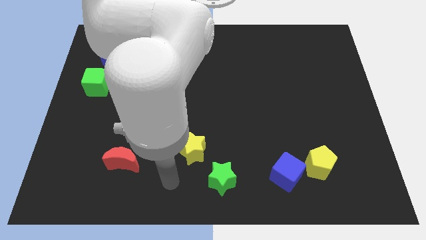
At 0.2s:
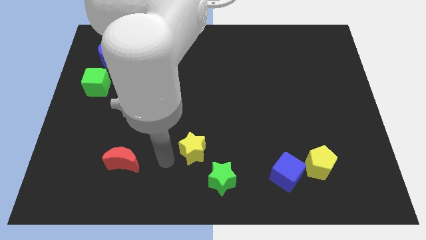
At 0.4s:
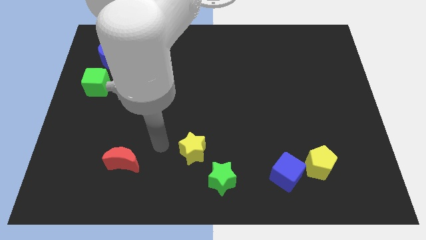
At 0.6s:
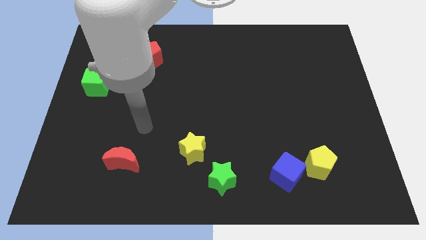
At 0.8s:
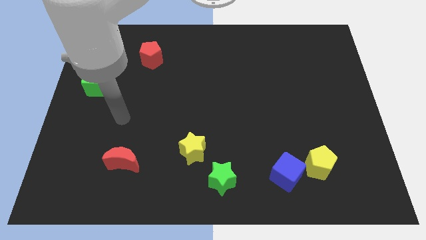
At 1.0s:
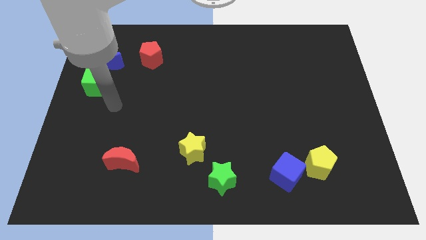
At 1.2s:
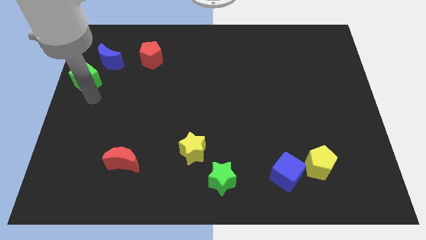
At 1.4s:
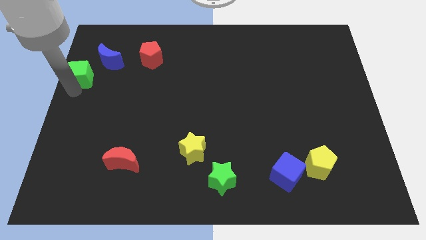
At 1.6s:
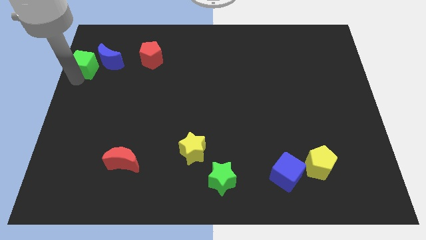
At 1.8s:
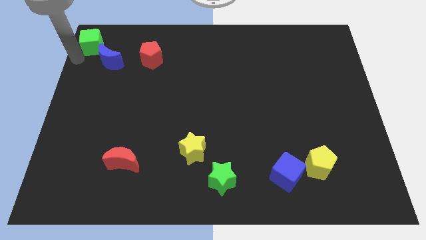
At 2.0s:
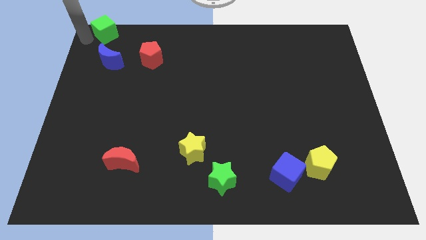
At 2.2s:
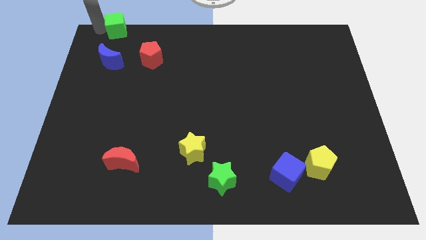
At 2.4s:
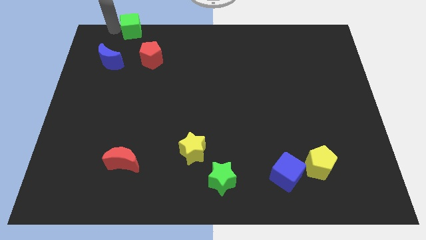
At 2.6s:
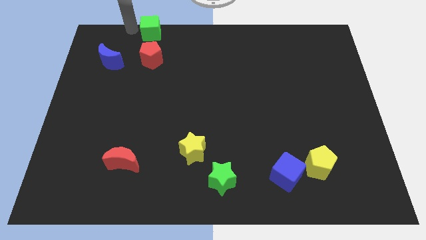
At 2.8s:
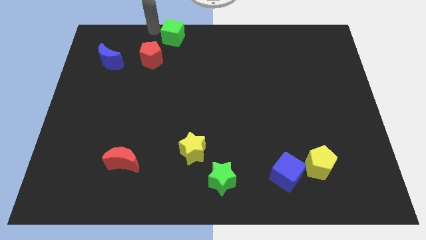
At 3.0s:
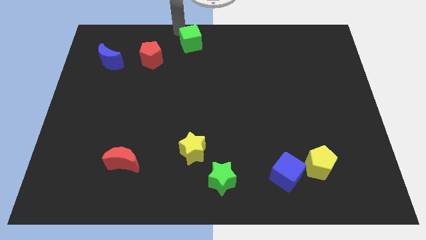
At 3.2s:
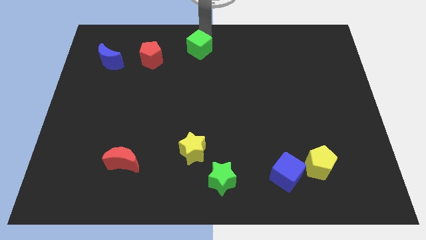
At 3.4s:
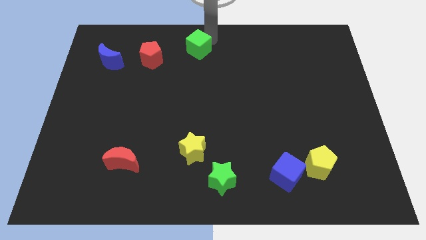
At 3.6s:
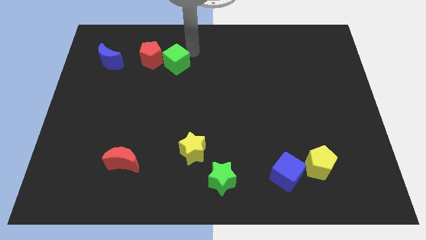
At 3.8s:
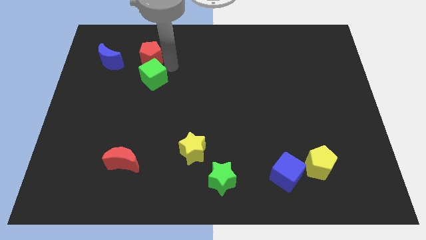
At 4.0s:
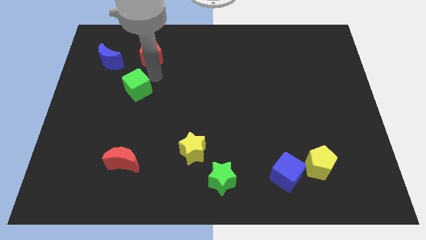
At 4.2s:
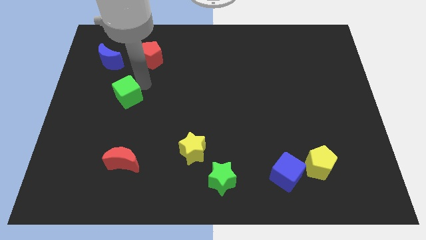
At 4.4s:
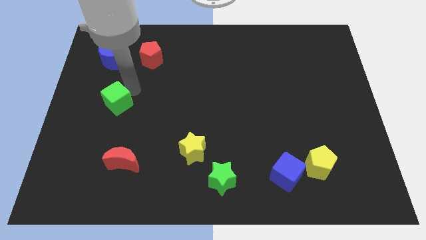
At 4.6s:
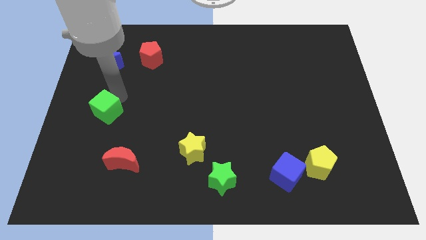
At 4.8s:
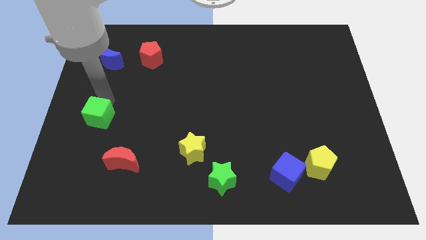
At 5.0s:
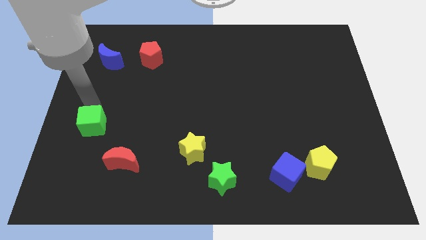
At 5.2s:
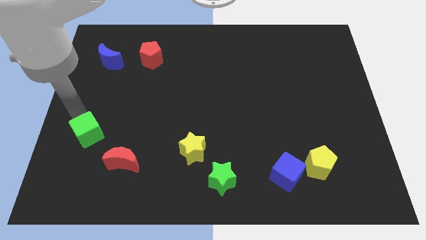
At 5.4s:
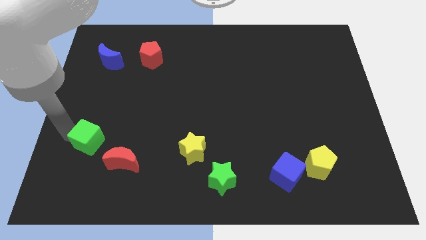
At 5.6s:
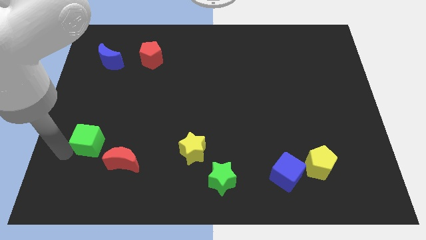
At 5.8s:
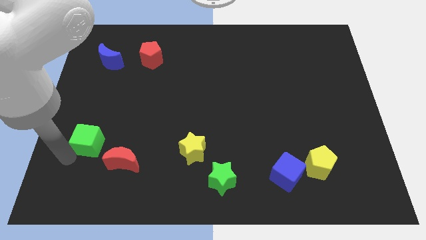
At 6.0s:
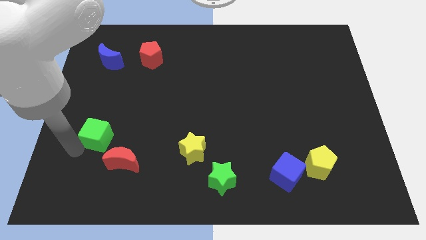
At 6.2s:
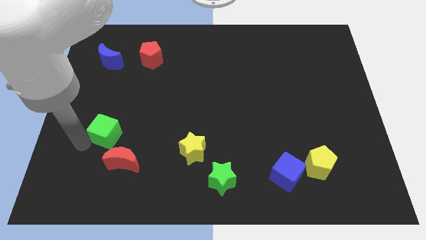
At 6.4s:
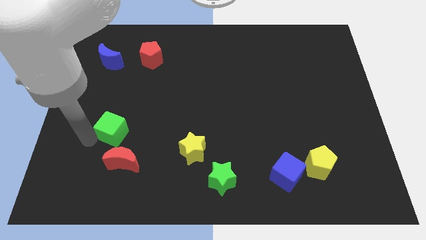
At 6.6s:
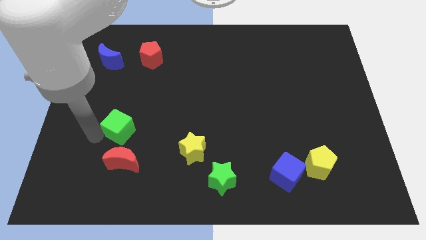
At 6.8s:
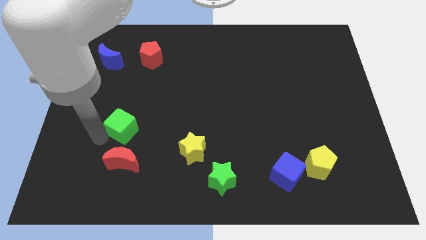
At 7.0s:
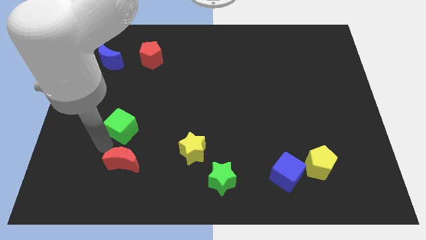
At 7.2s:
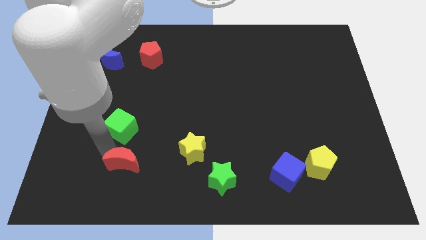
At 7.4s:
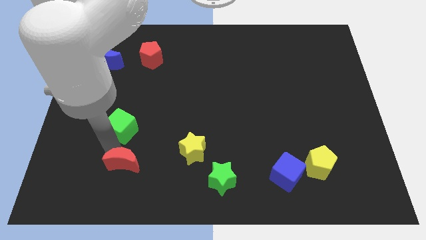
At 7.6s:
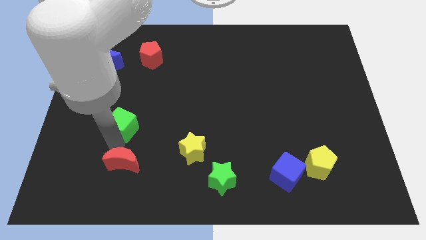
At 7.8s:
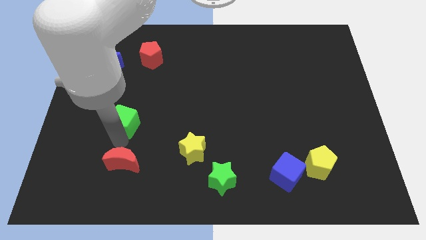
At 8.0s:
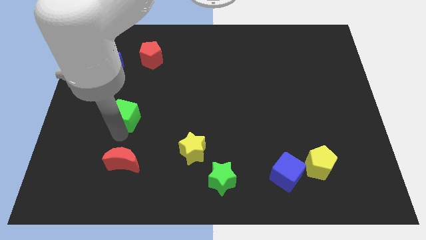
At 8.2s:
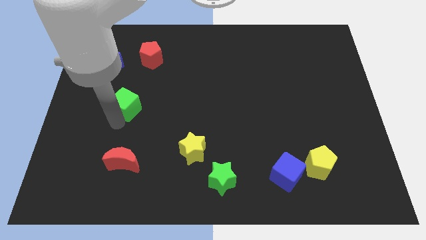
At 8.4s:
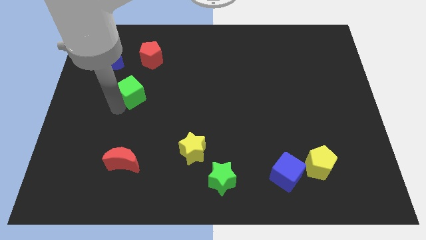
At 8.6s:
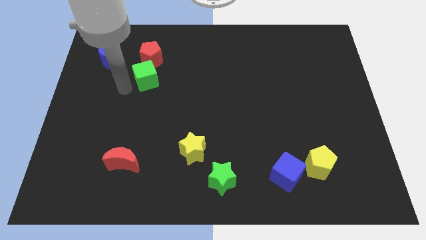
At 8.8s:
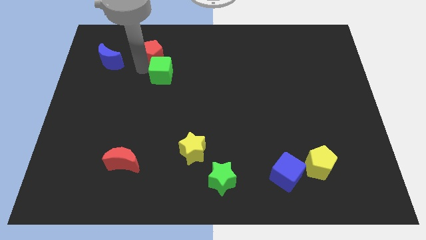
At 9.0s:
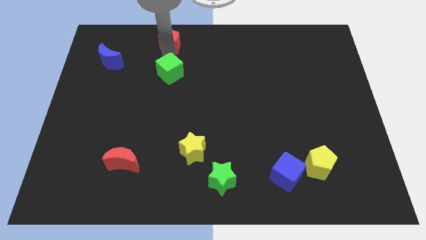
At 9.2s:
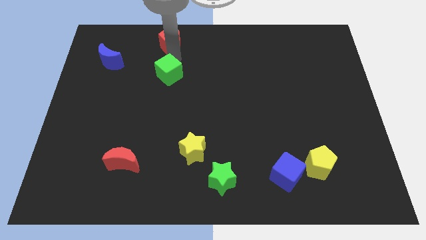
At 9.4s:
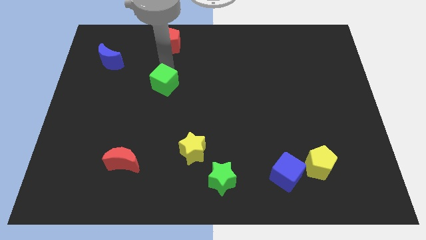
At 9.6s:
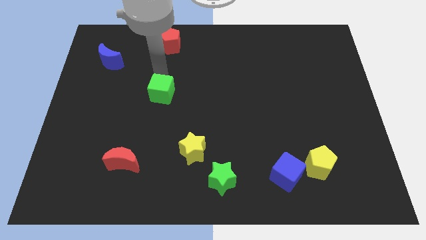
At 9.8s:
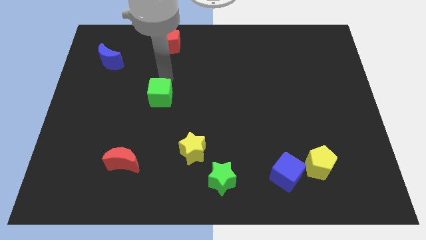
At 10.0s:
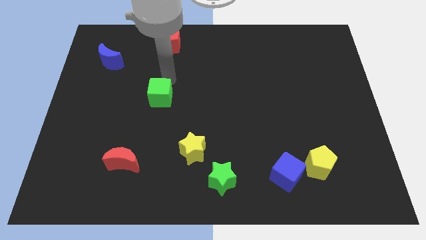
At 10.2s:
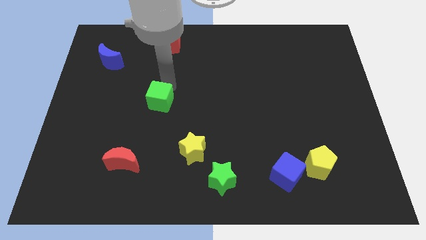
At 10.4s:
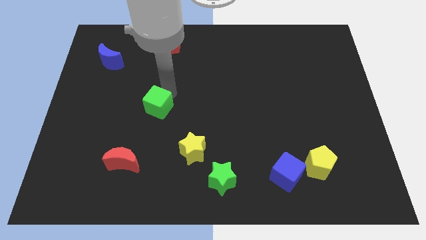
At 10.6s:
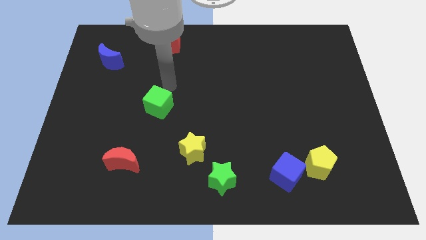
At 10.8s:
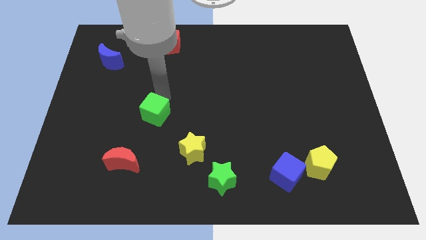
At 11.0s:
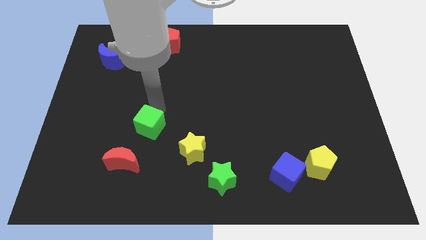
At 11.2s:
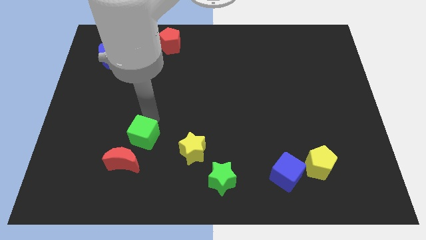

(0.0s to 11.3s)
move the green cube downwards and right

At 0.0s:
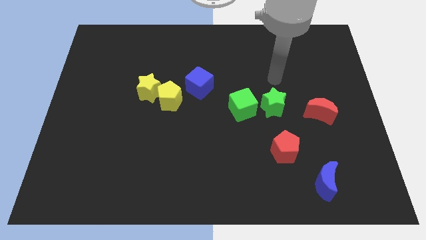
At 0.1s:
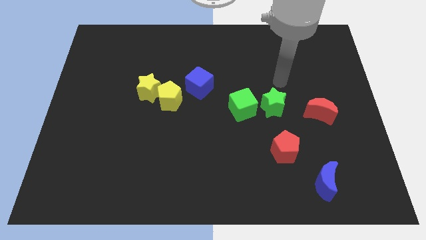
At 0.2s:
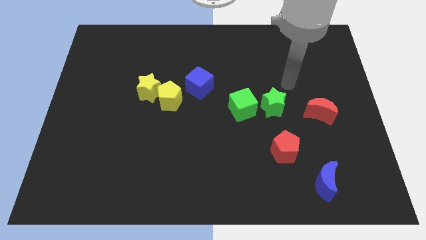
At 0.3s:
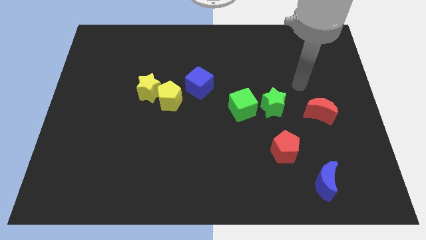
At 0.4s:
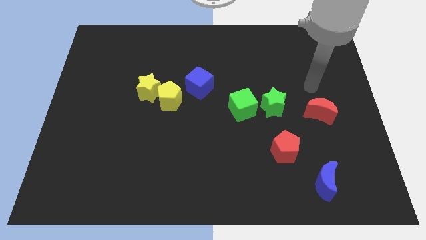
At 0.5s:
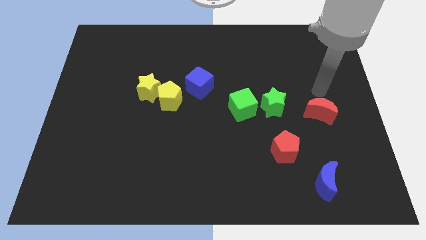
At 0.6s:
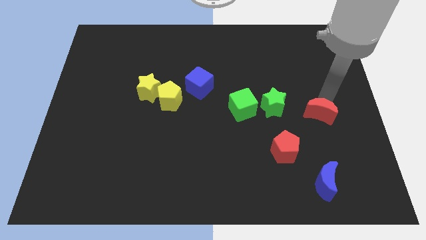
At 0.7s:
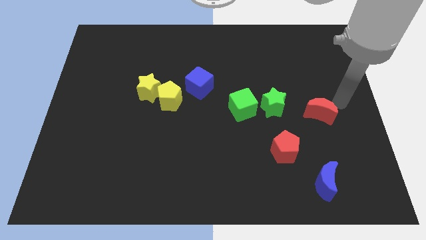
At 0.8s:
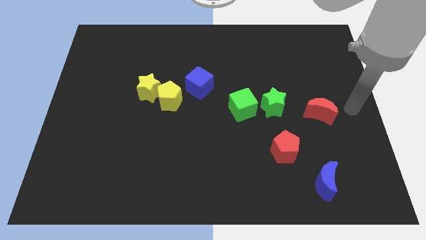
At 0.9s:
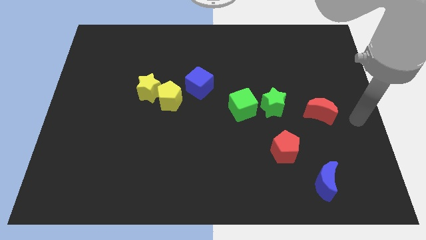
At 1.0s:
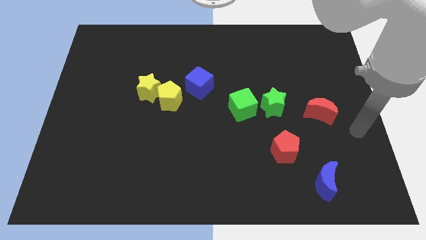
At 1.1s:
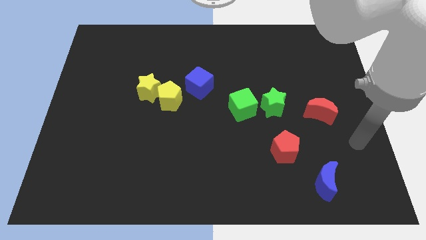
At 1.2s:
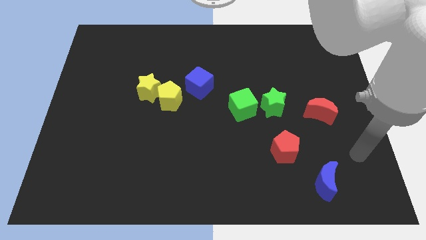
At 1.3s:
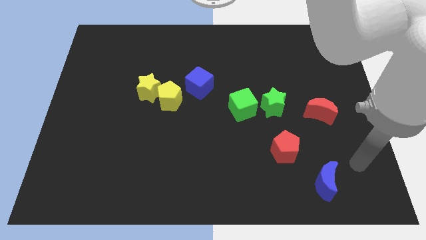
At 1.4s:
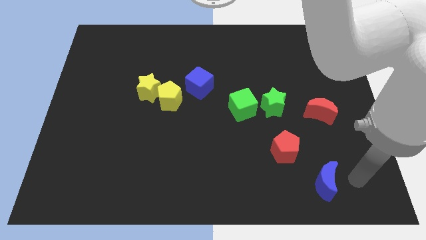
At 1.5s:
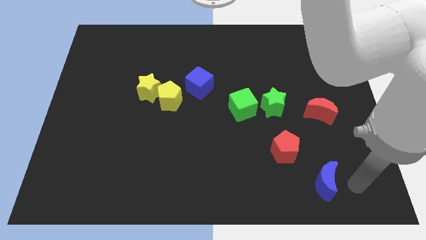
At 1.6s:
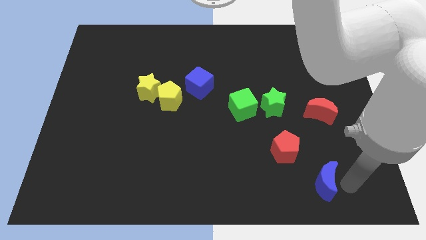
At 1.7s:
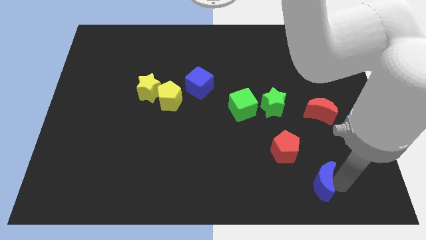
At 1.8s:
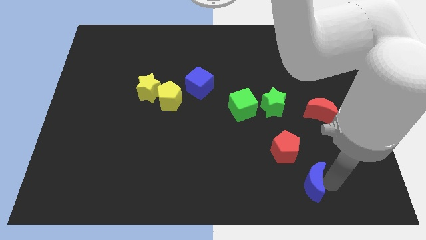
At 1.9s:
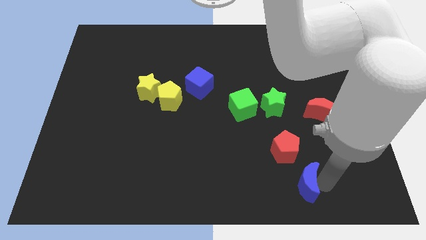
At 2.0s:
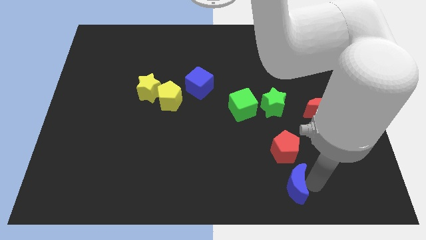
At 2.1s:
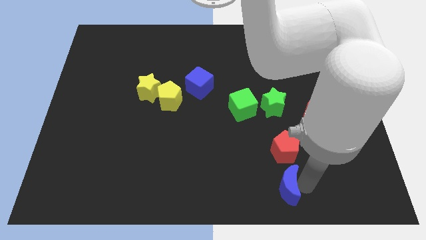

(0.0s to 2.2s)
slightly slide the blue moon to the left

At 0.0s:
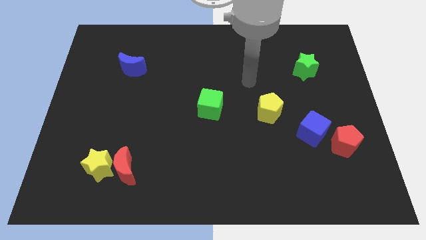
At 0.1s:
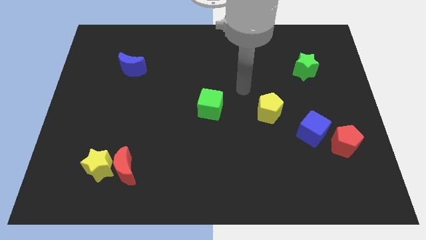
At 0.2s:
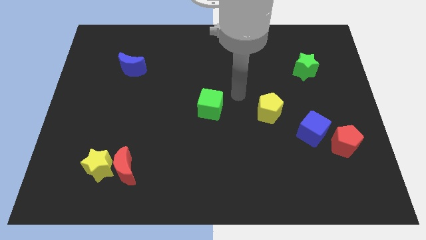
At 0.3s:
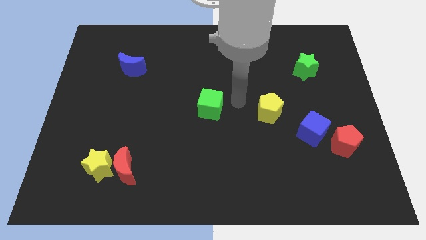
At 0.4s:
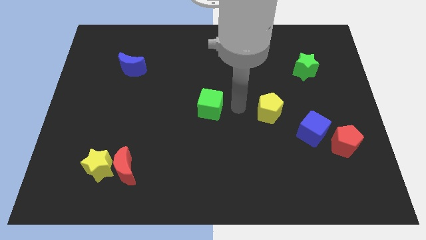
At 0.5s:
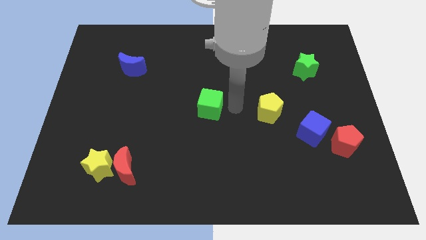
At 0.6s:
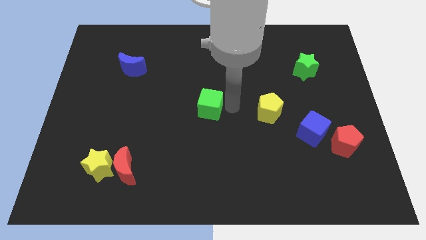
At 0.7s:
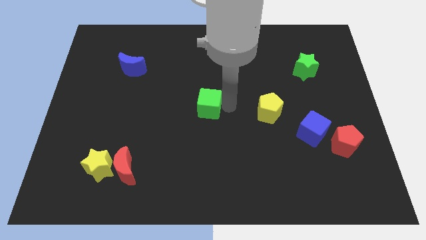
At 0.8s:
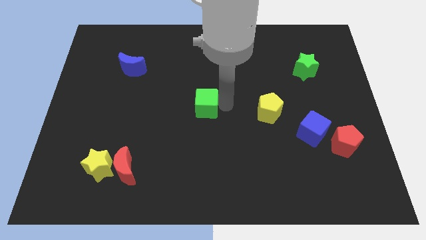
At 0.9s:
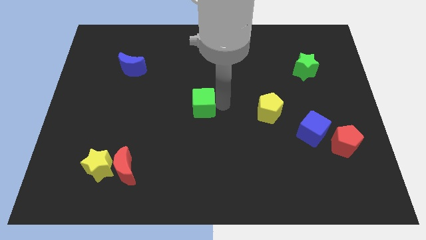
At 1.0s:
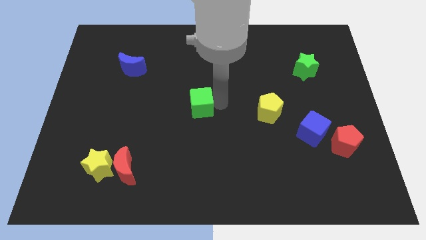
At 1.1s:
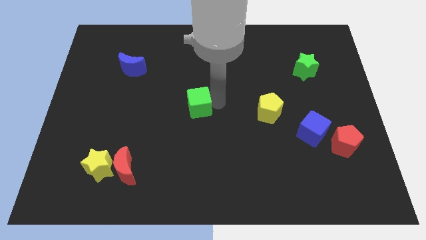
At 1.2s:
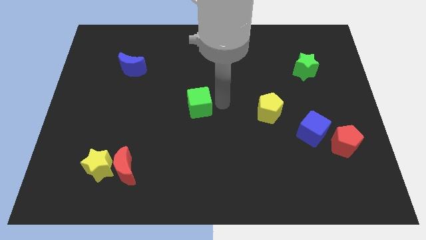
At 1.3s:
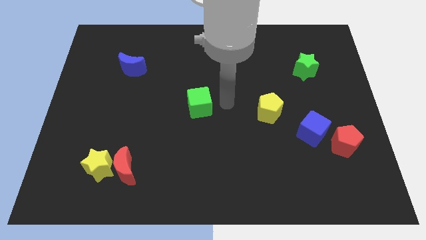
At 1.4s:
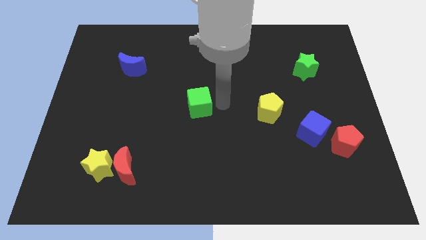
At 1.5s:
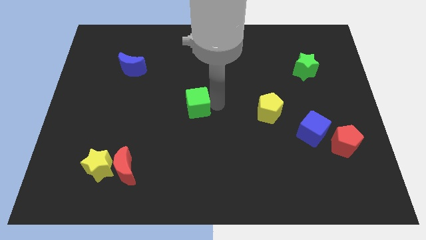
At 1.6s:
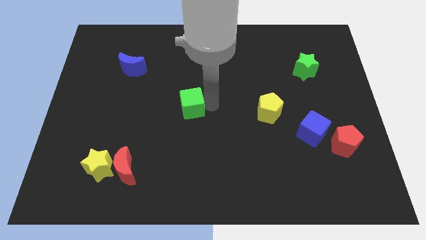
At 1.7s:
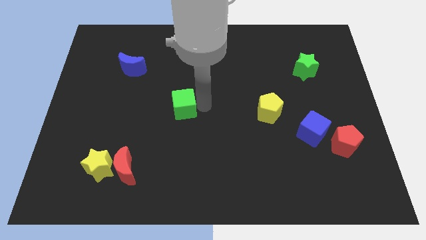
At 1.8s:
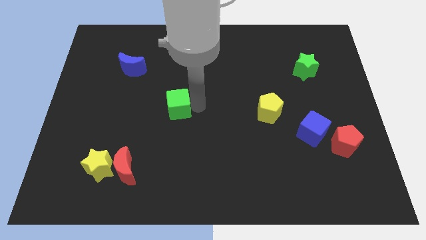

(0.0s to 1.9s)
move the green cube to the left a bit
